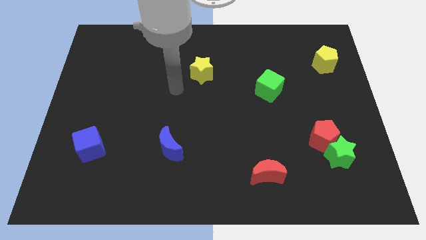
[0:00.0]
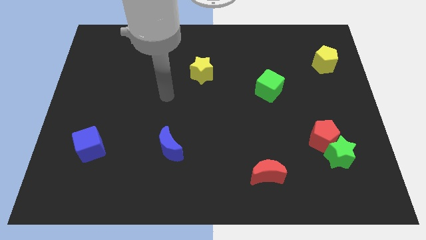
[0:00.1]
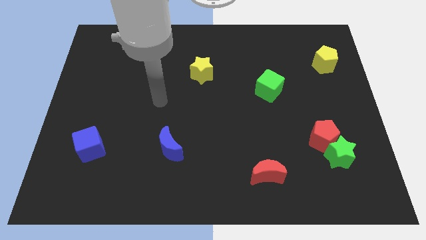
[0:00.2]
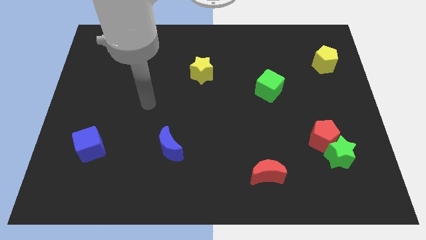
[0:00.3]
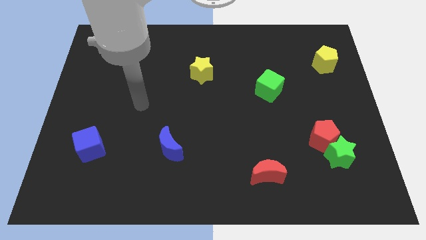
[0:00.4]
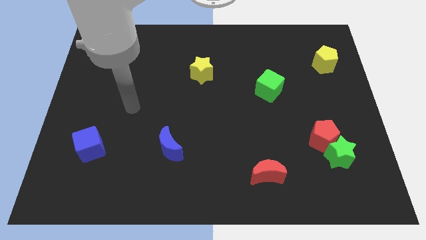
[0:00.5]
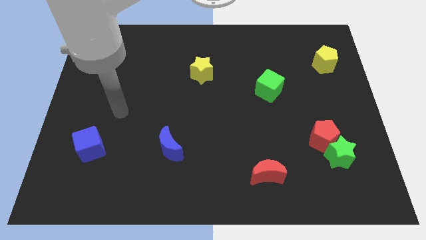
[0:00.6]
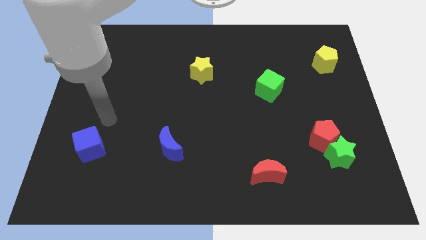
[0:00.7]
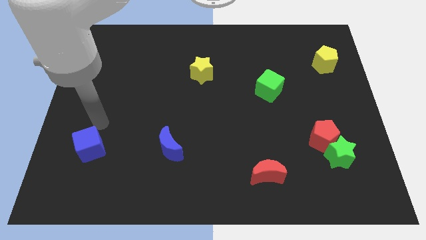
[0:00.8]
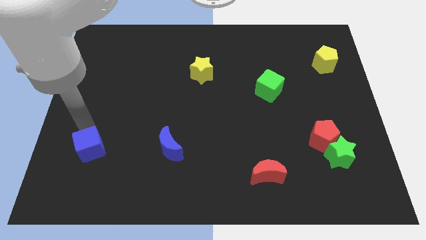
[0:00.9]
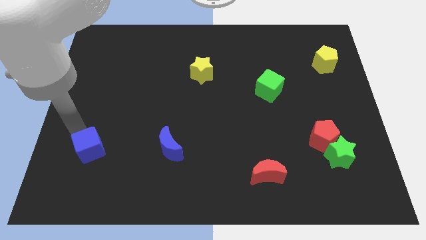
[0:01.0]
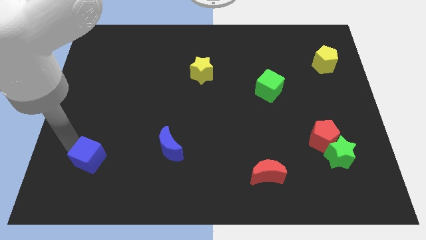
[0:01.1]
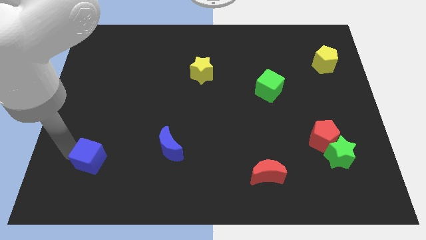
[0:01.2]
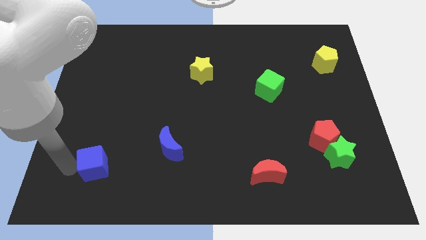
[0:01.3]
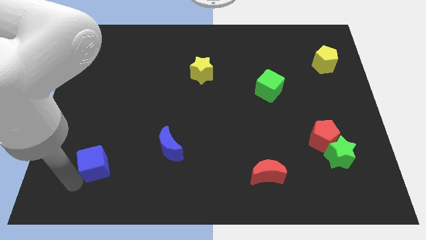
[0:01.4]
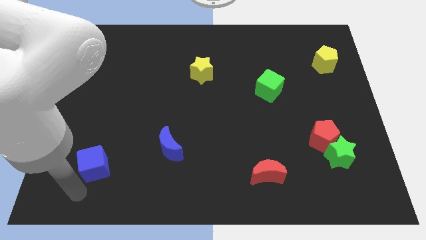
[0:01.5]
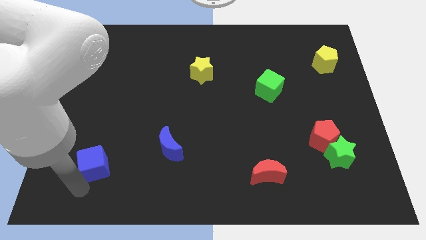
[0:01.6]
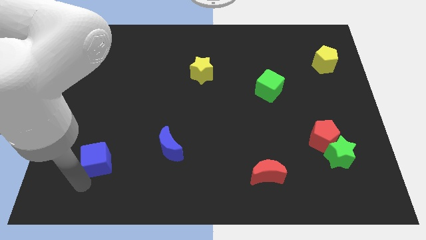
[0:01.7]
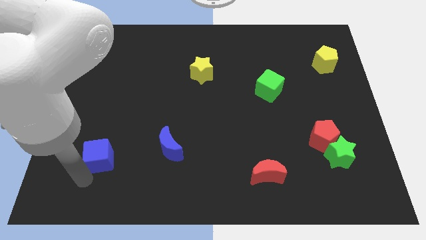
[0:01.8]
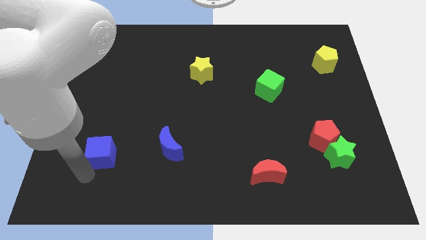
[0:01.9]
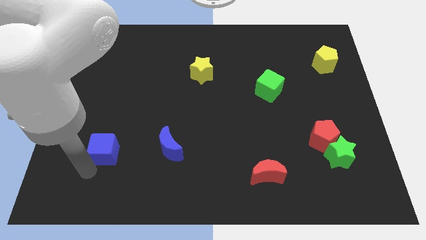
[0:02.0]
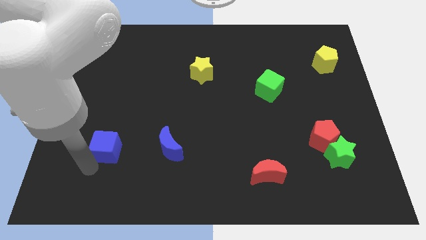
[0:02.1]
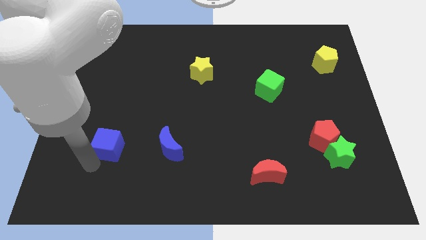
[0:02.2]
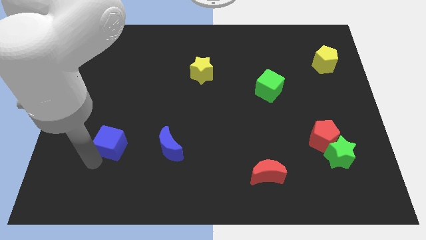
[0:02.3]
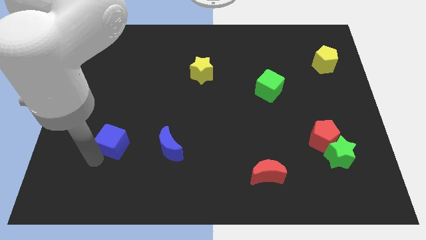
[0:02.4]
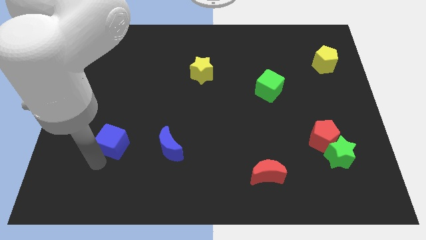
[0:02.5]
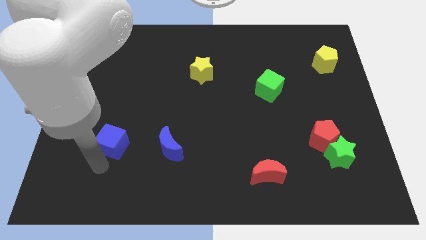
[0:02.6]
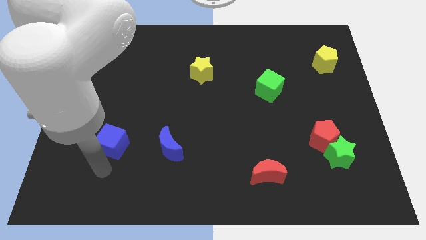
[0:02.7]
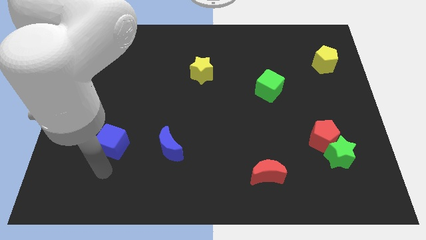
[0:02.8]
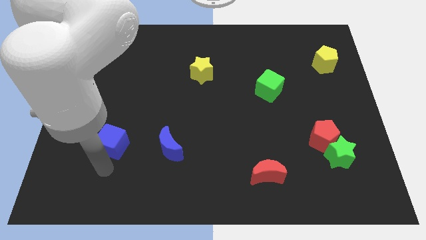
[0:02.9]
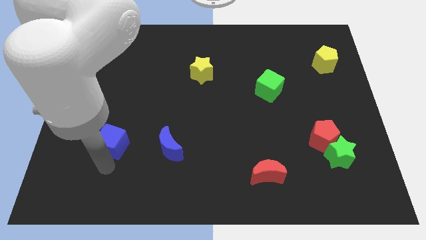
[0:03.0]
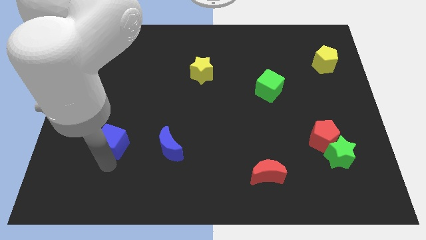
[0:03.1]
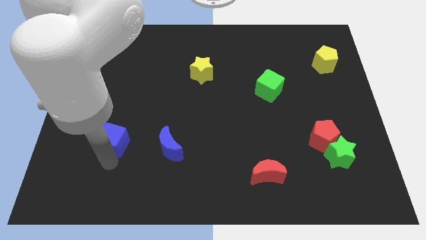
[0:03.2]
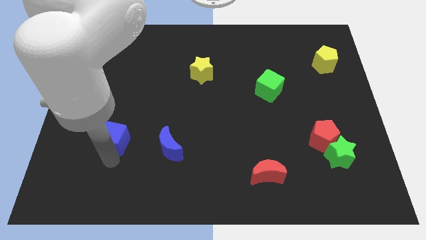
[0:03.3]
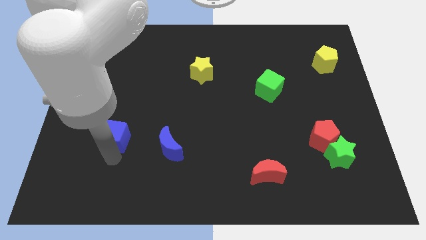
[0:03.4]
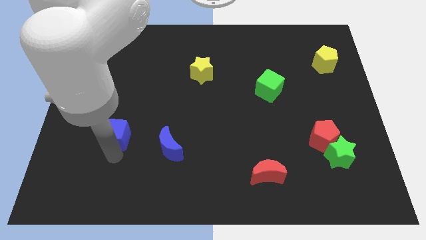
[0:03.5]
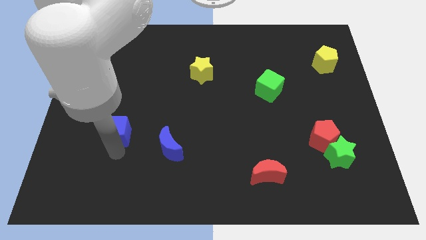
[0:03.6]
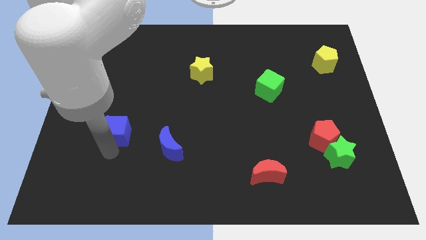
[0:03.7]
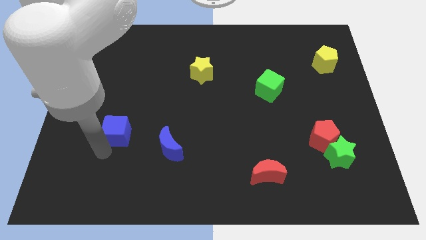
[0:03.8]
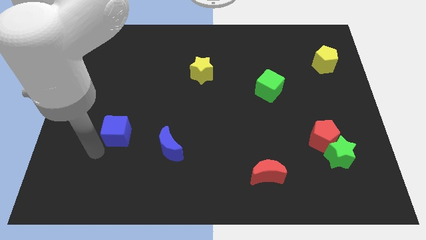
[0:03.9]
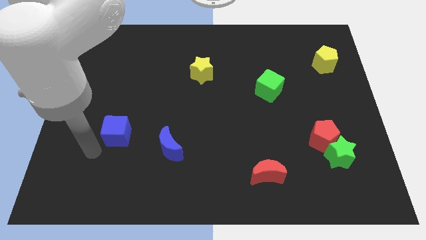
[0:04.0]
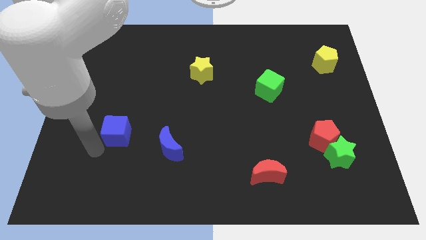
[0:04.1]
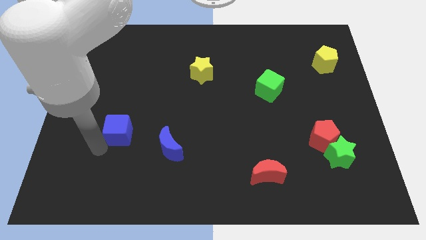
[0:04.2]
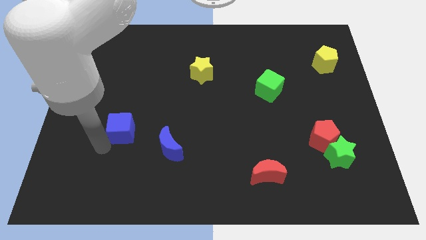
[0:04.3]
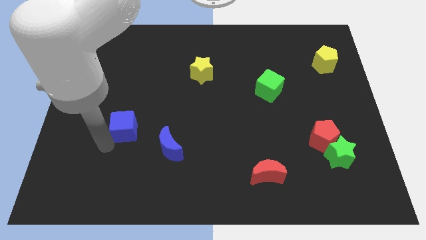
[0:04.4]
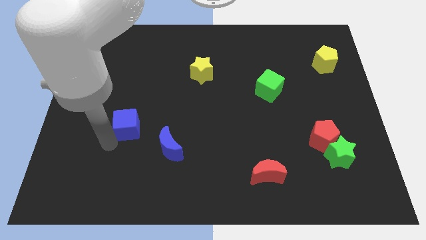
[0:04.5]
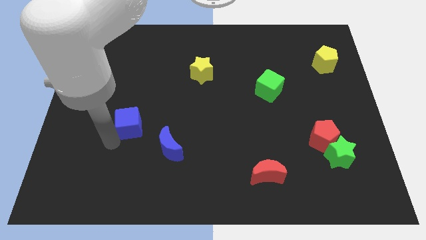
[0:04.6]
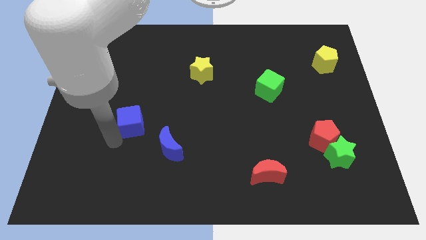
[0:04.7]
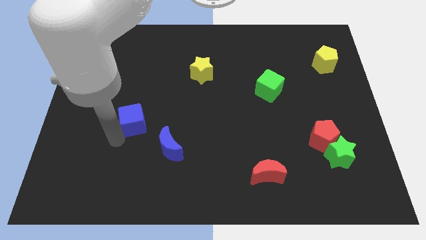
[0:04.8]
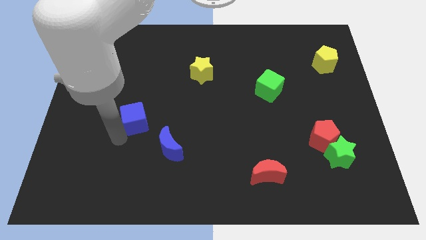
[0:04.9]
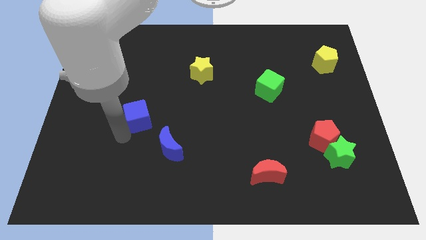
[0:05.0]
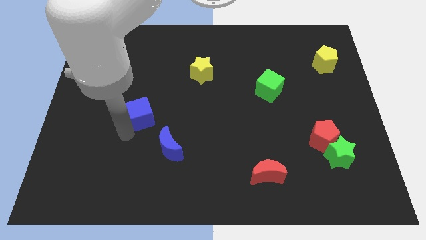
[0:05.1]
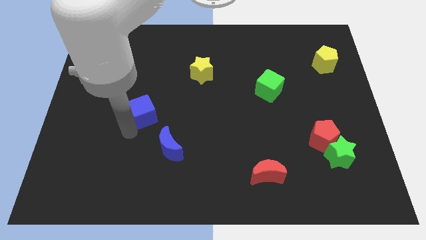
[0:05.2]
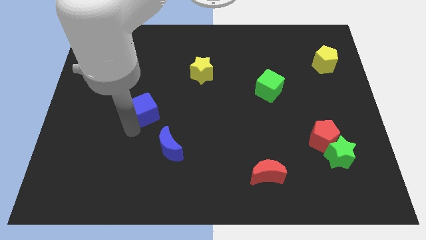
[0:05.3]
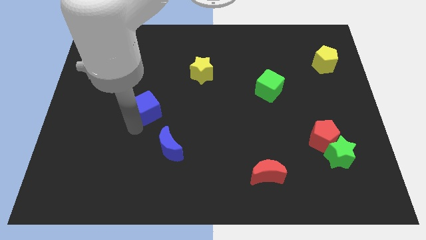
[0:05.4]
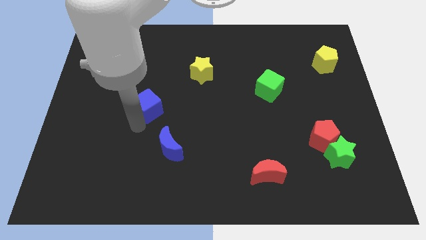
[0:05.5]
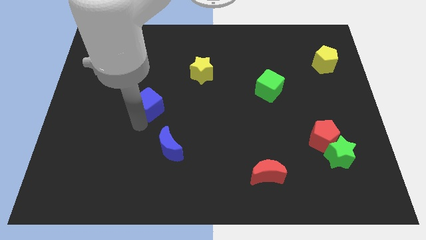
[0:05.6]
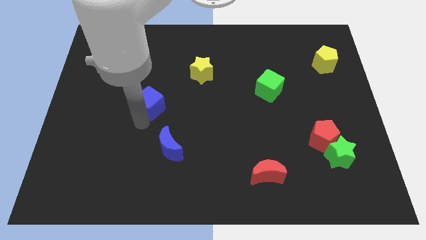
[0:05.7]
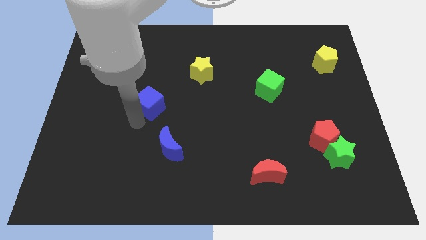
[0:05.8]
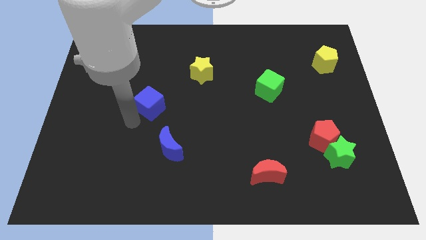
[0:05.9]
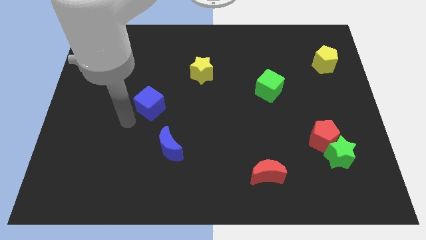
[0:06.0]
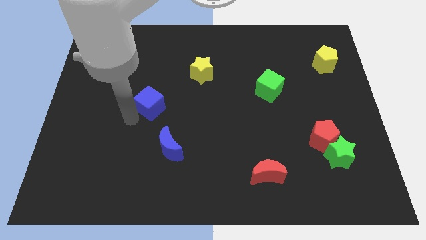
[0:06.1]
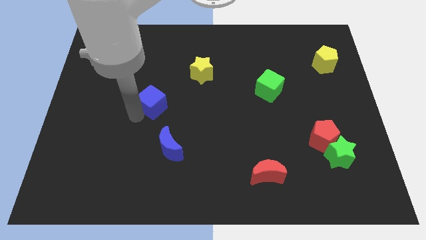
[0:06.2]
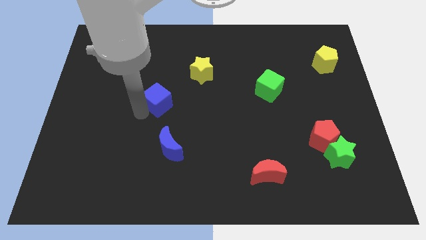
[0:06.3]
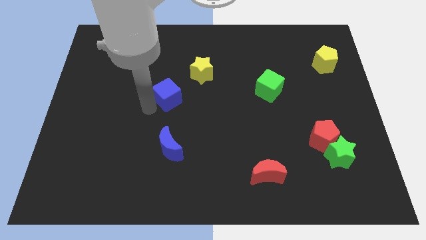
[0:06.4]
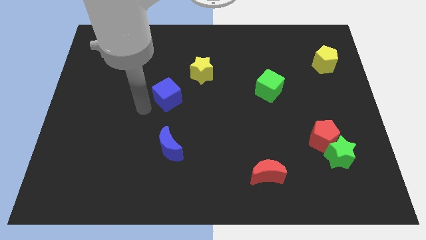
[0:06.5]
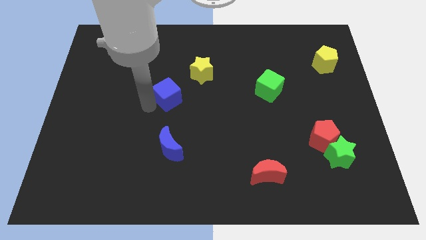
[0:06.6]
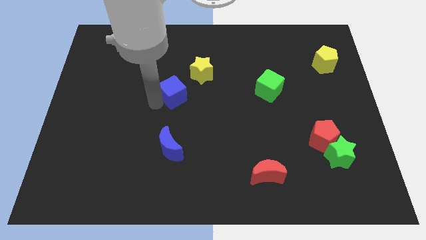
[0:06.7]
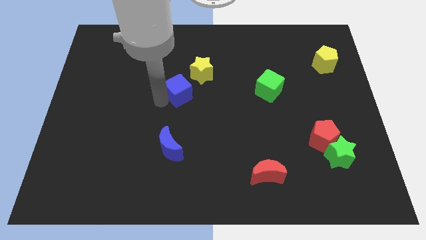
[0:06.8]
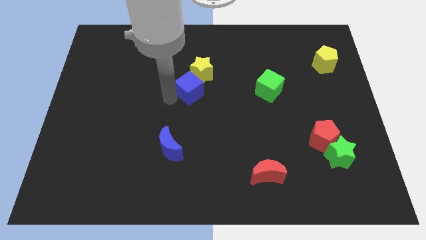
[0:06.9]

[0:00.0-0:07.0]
move the blue cube towards the yellow star
